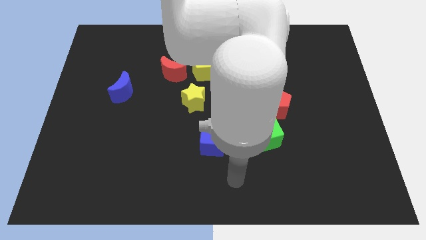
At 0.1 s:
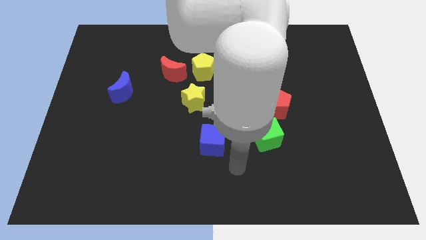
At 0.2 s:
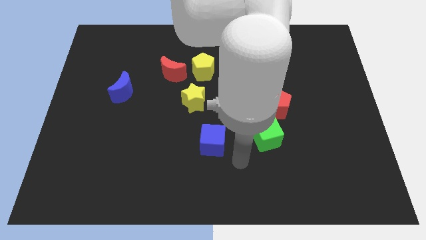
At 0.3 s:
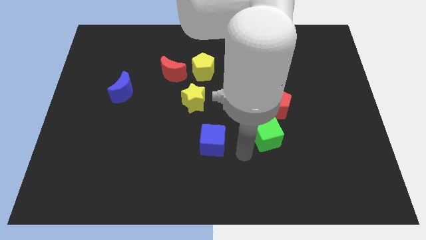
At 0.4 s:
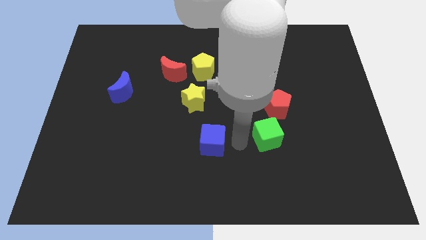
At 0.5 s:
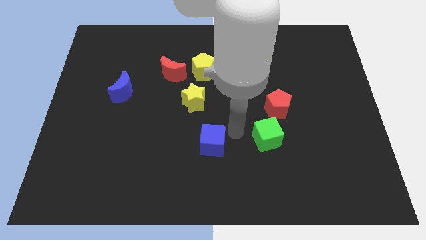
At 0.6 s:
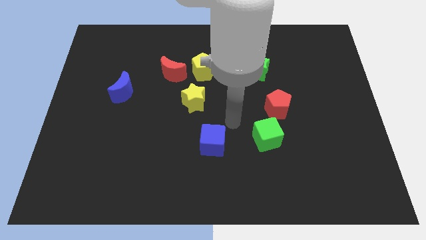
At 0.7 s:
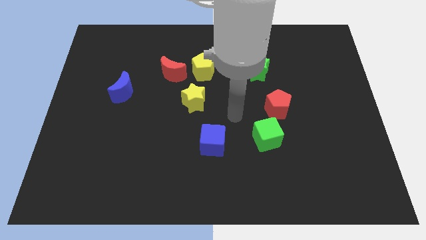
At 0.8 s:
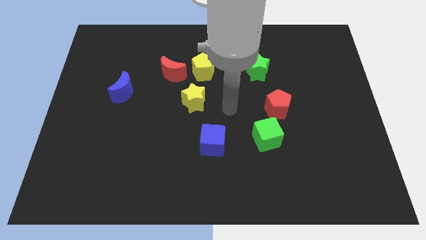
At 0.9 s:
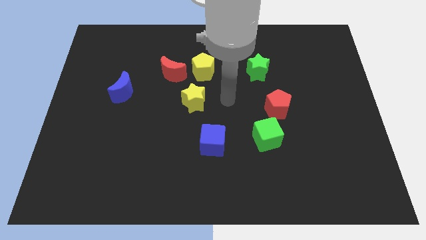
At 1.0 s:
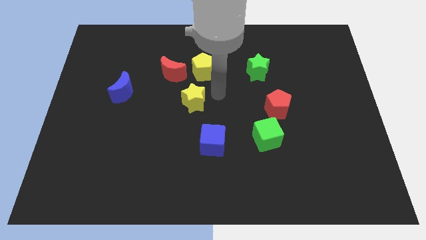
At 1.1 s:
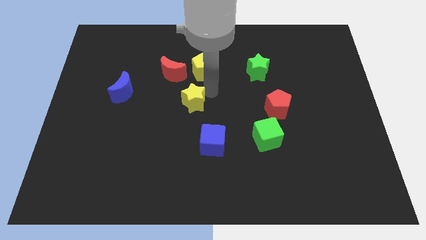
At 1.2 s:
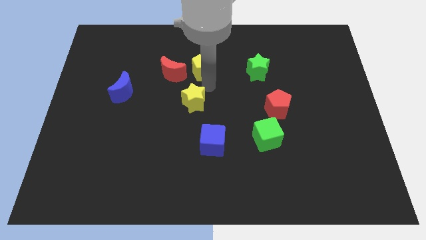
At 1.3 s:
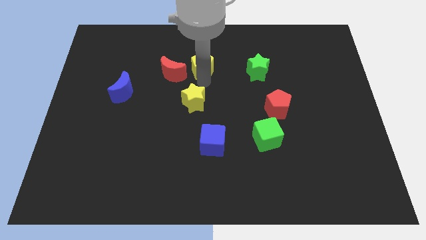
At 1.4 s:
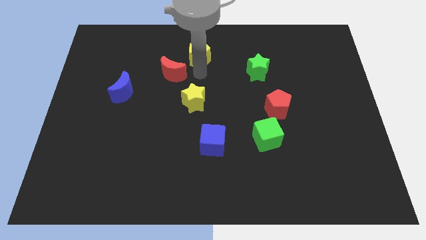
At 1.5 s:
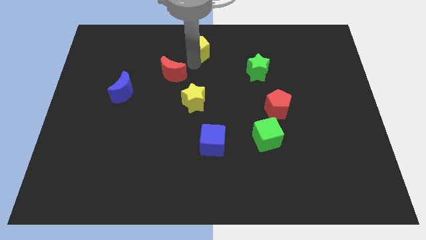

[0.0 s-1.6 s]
move the red moon away from the yellow pentagon

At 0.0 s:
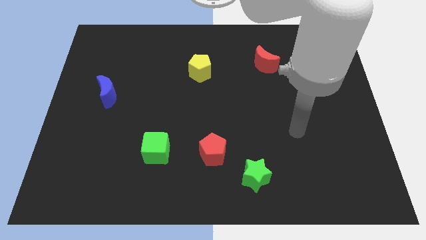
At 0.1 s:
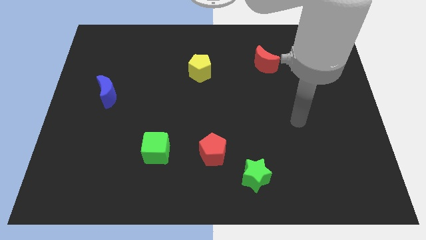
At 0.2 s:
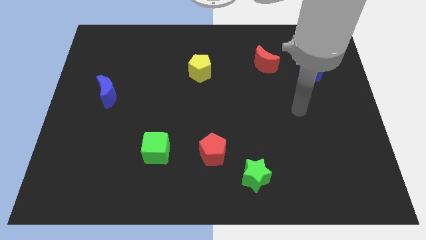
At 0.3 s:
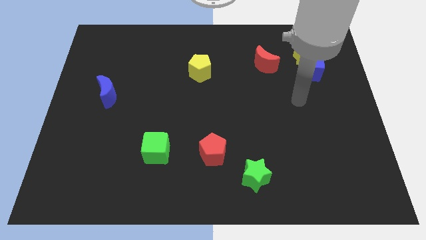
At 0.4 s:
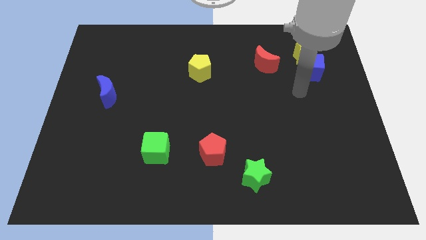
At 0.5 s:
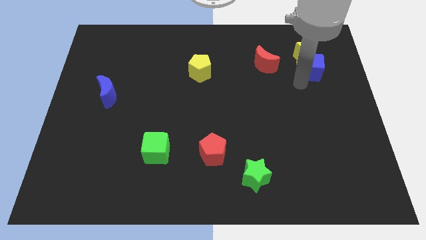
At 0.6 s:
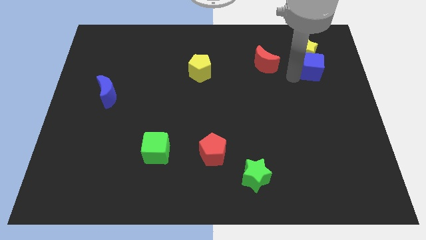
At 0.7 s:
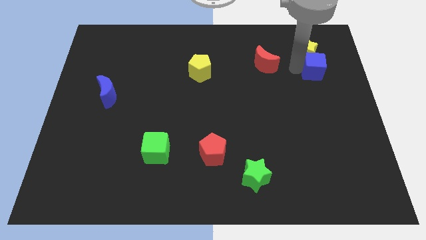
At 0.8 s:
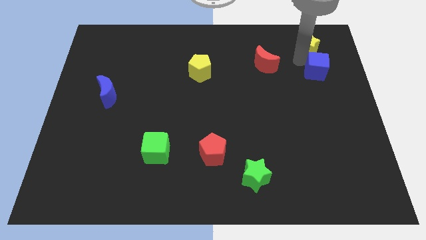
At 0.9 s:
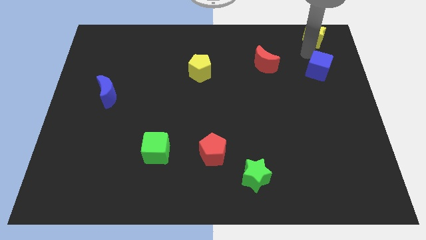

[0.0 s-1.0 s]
move the blue cube away from the yellow star

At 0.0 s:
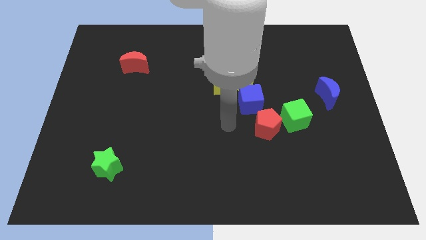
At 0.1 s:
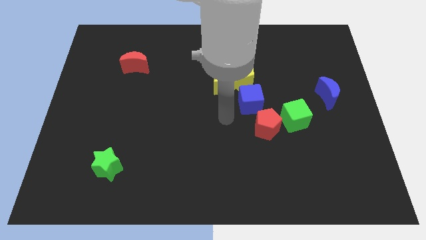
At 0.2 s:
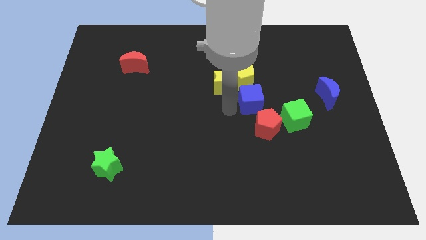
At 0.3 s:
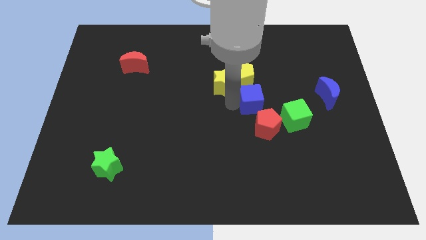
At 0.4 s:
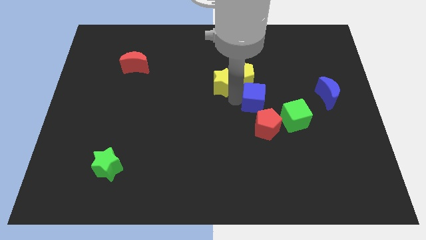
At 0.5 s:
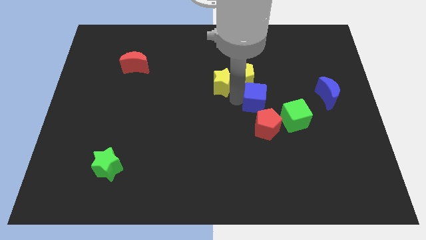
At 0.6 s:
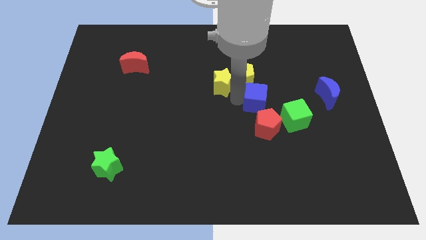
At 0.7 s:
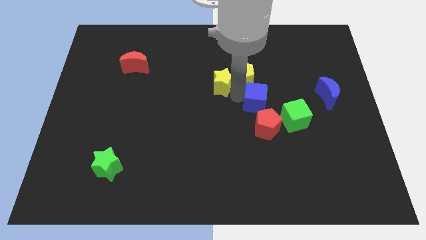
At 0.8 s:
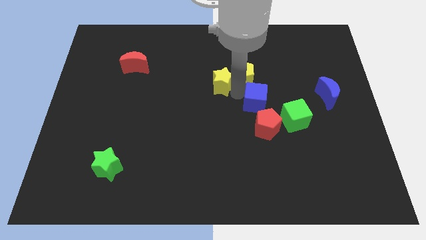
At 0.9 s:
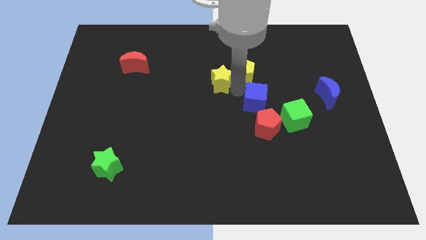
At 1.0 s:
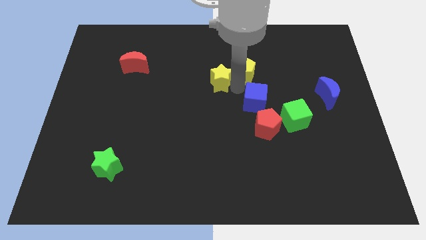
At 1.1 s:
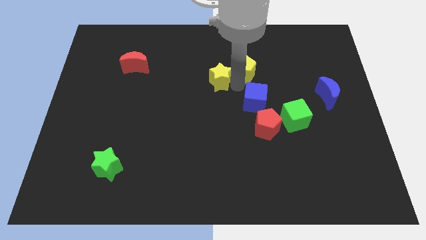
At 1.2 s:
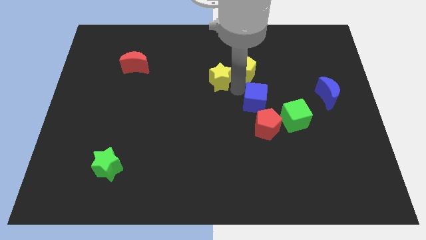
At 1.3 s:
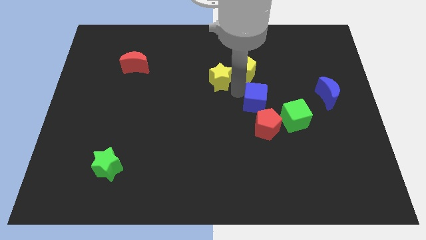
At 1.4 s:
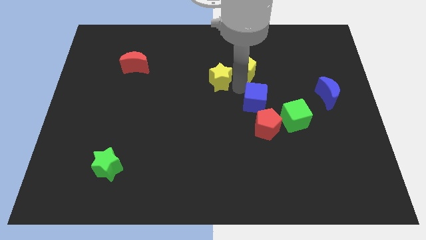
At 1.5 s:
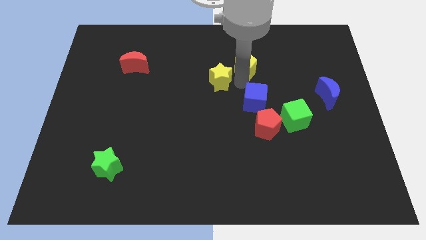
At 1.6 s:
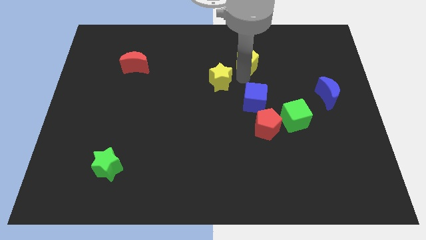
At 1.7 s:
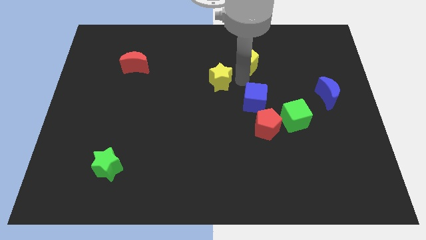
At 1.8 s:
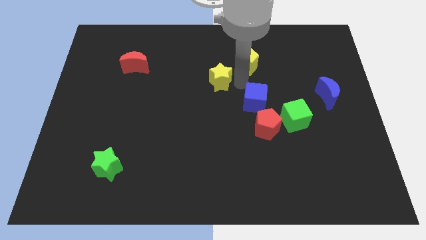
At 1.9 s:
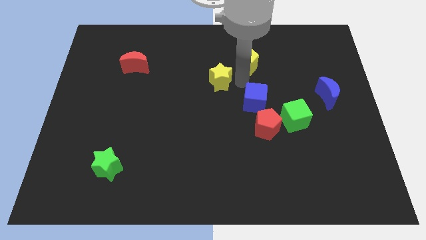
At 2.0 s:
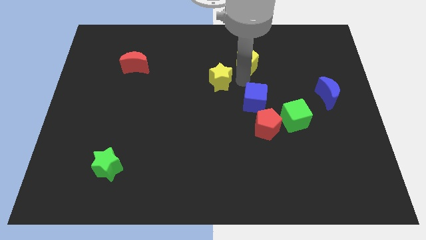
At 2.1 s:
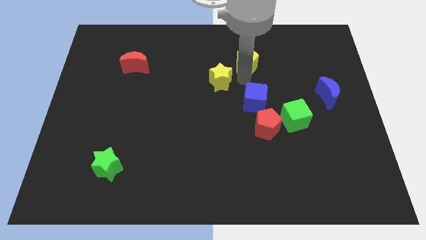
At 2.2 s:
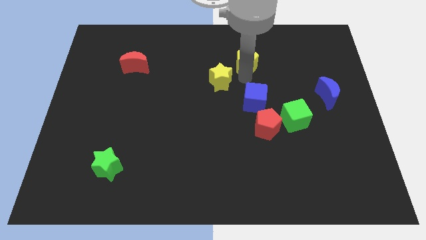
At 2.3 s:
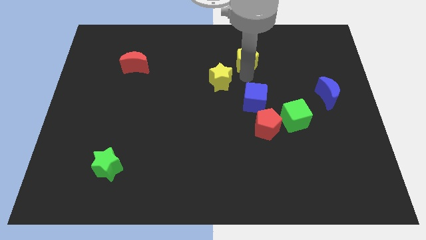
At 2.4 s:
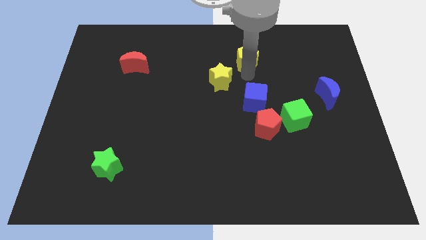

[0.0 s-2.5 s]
move the yellow pentagon away from the yellow star and blue cube

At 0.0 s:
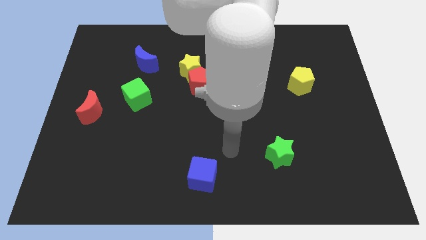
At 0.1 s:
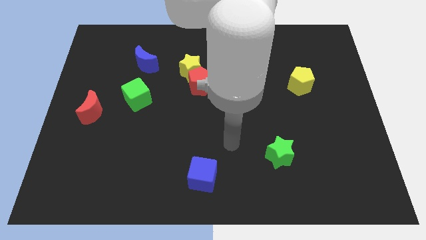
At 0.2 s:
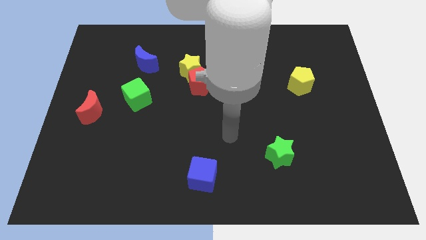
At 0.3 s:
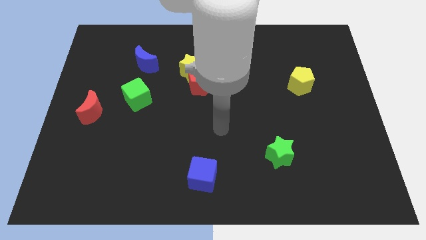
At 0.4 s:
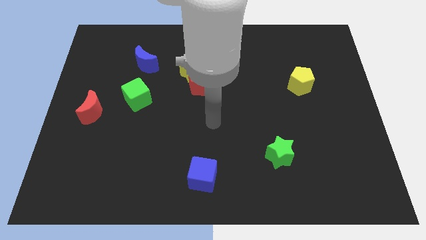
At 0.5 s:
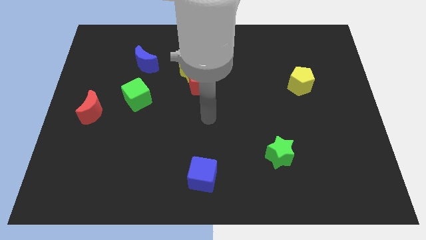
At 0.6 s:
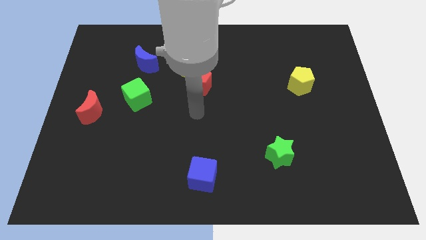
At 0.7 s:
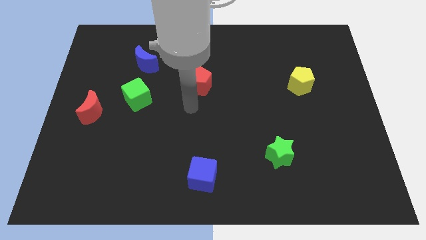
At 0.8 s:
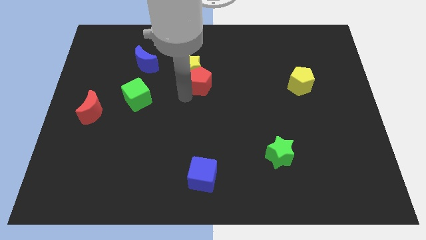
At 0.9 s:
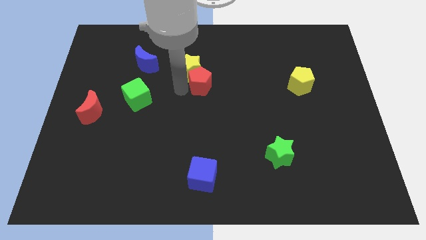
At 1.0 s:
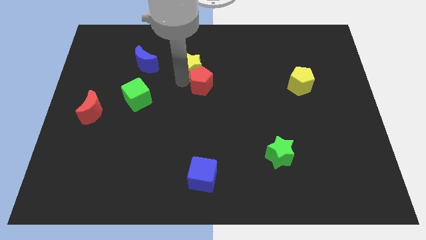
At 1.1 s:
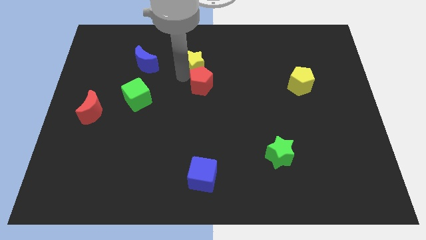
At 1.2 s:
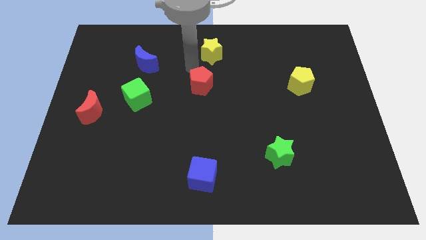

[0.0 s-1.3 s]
move the red pentagon away from the yellow star

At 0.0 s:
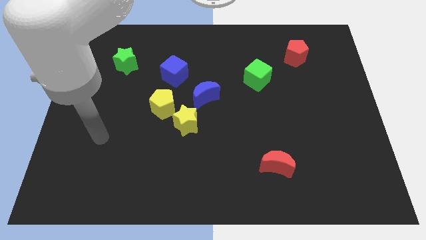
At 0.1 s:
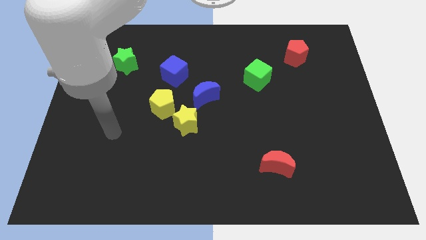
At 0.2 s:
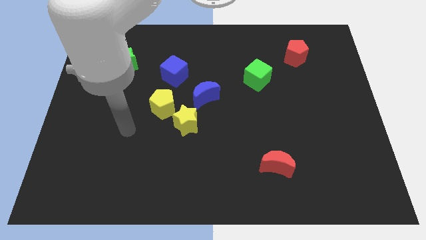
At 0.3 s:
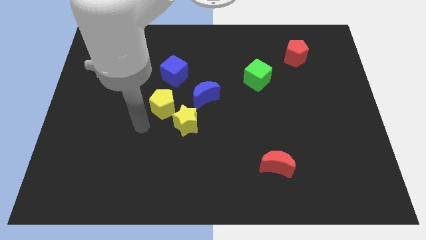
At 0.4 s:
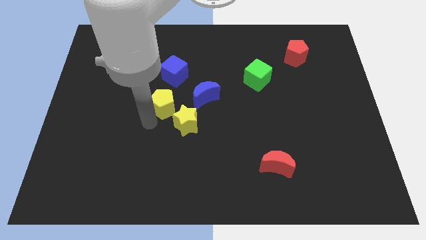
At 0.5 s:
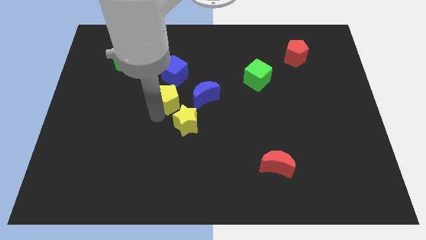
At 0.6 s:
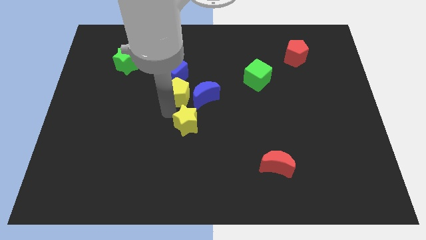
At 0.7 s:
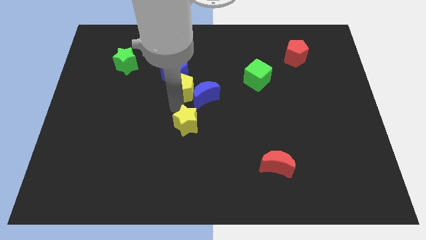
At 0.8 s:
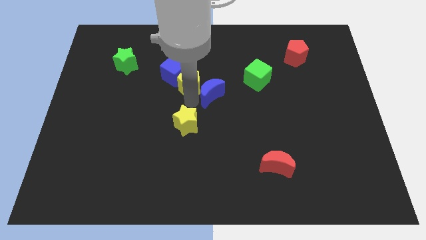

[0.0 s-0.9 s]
move the yellow star away from the yellow pentagon and blue moon

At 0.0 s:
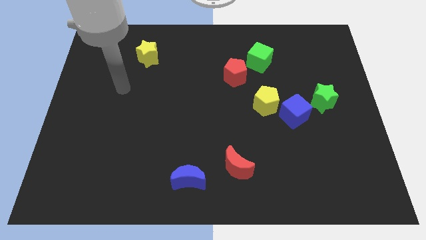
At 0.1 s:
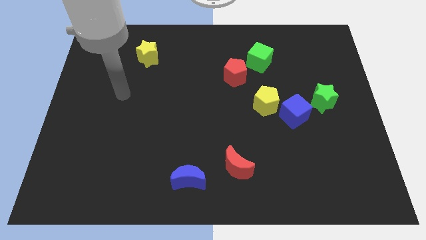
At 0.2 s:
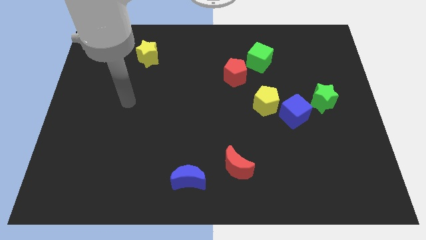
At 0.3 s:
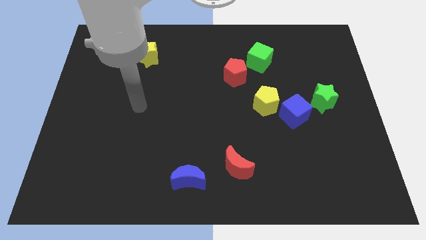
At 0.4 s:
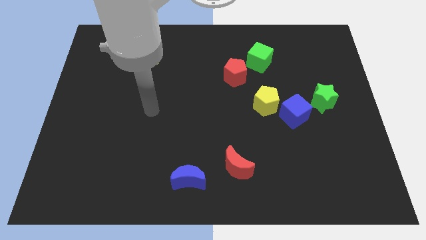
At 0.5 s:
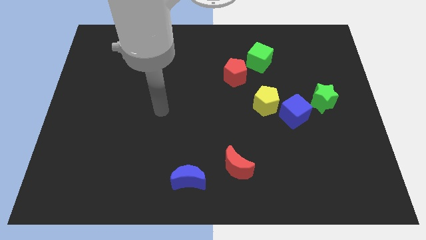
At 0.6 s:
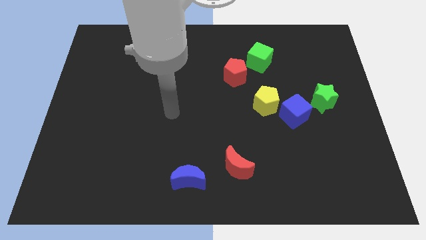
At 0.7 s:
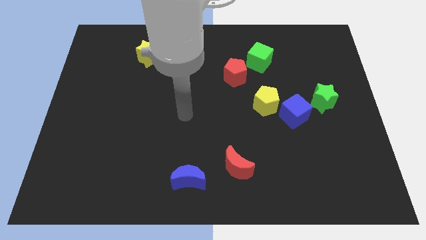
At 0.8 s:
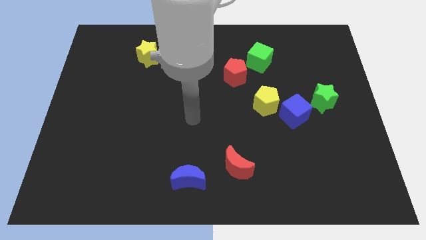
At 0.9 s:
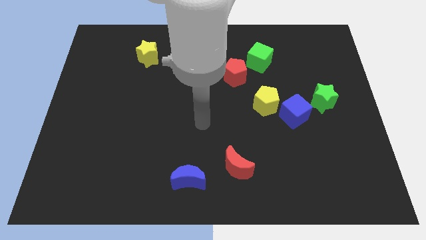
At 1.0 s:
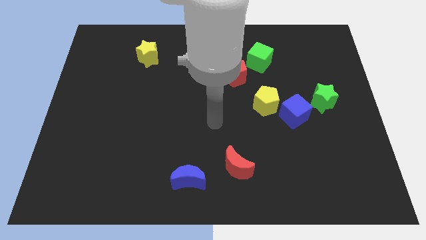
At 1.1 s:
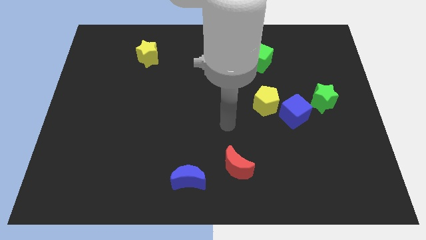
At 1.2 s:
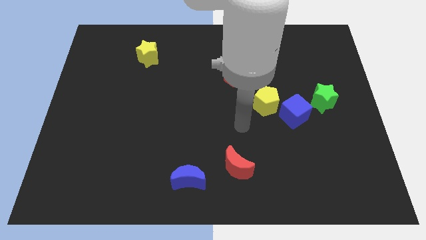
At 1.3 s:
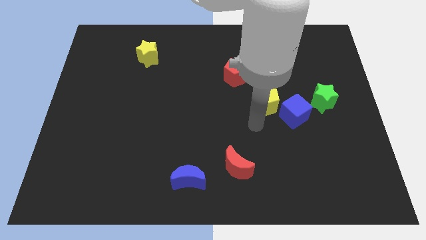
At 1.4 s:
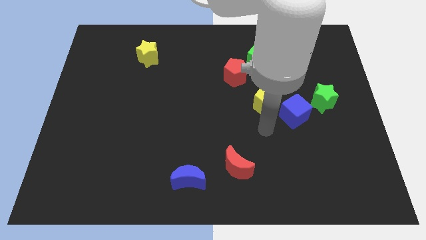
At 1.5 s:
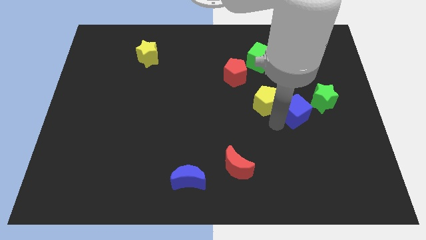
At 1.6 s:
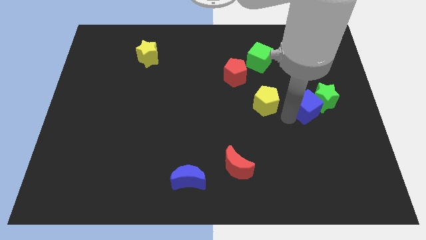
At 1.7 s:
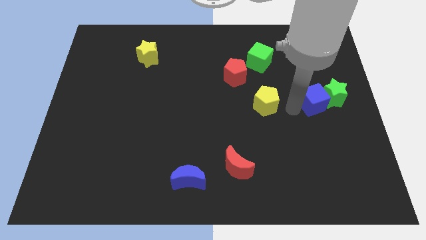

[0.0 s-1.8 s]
move the yellow pentagon away from the blue cube

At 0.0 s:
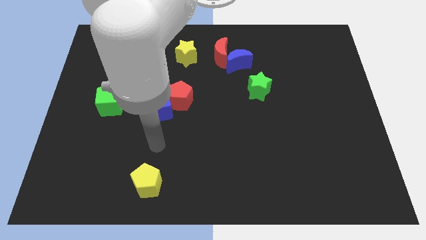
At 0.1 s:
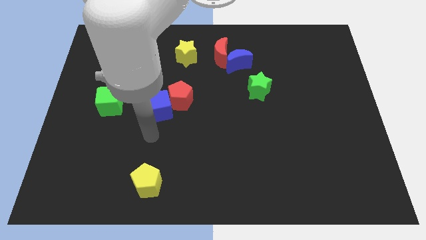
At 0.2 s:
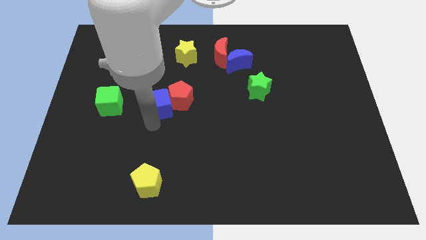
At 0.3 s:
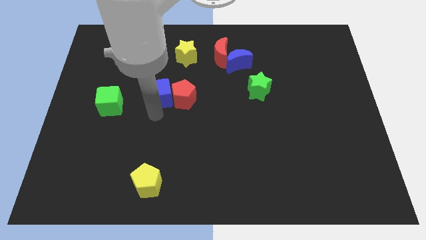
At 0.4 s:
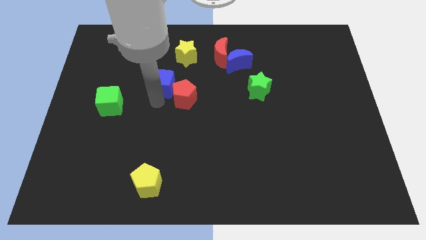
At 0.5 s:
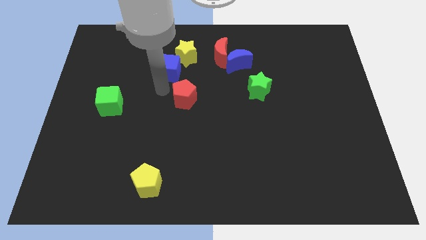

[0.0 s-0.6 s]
move the red pentagon away from the blue cube
